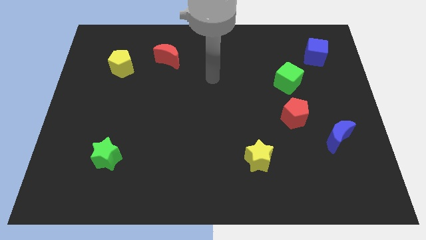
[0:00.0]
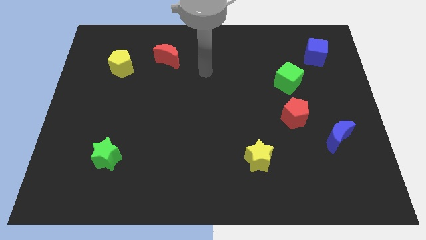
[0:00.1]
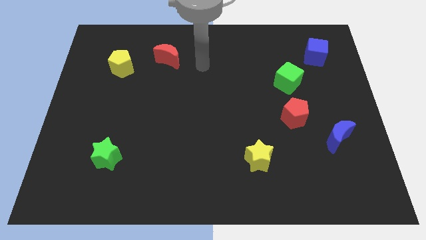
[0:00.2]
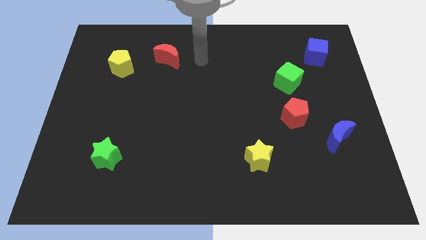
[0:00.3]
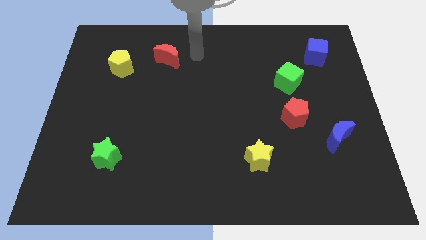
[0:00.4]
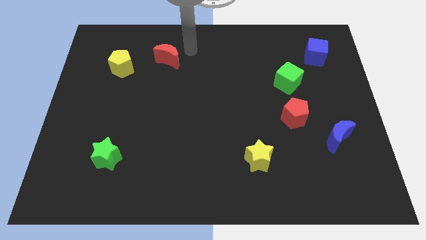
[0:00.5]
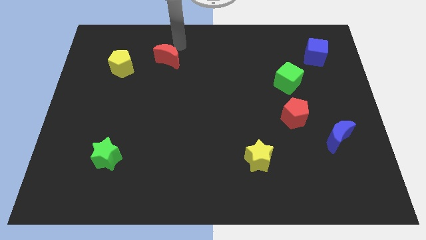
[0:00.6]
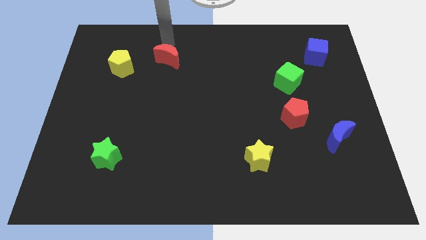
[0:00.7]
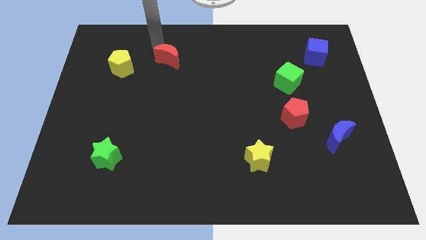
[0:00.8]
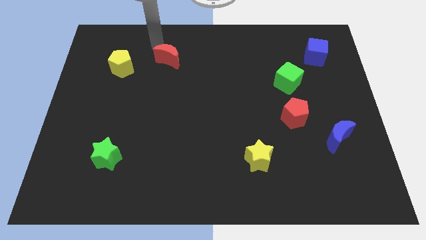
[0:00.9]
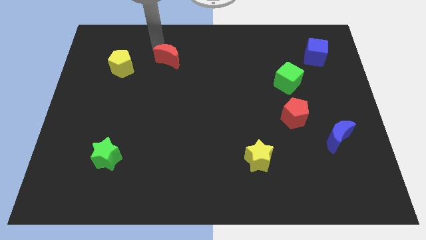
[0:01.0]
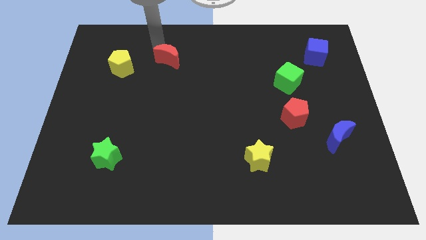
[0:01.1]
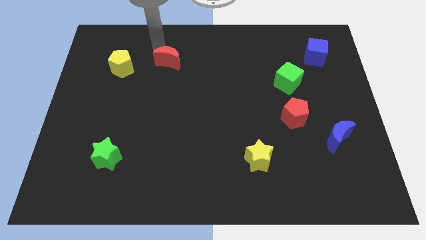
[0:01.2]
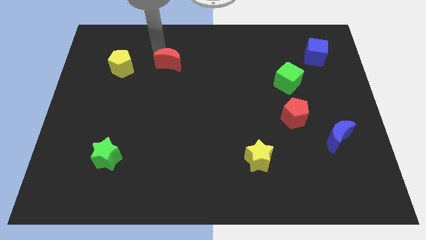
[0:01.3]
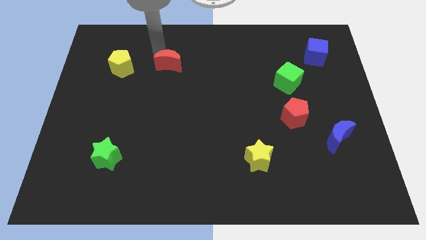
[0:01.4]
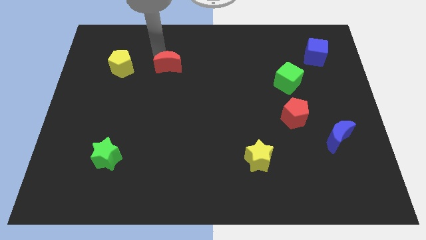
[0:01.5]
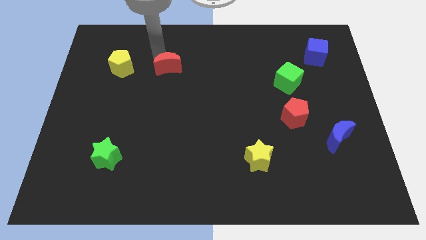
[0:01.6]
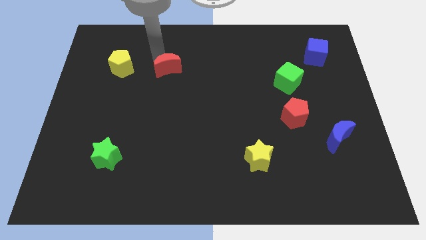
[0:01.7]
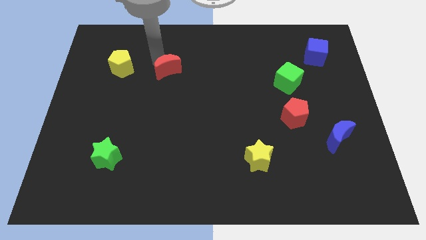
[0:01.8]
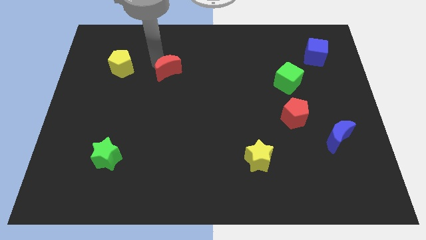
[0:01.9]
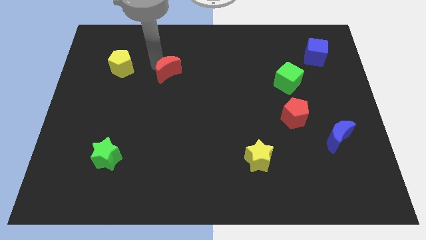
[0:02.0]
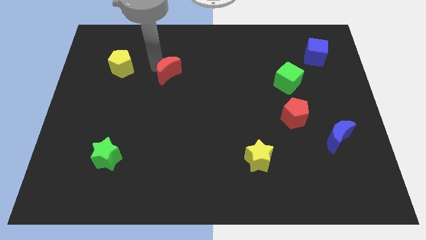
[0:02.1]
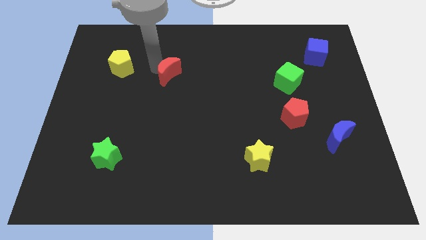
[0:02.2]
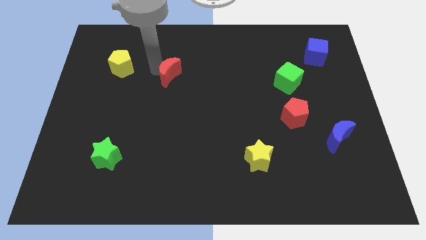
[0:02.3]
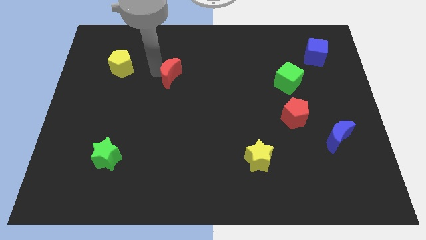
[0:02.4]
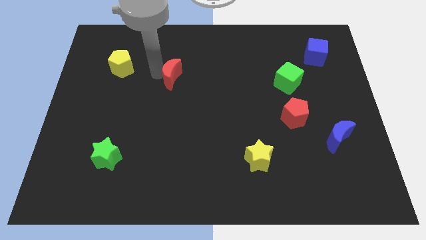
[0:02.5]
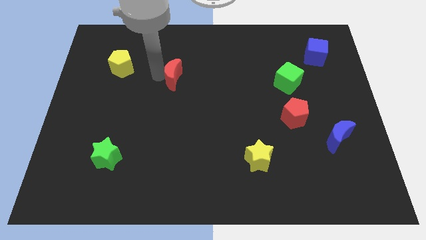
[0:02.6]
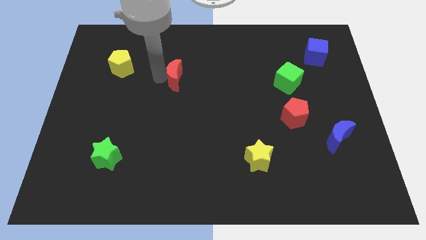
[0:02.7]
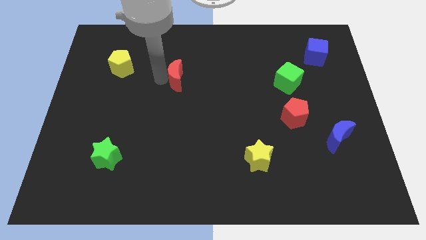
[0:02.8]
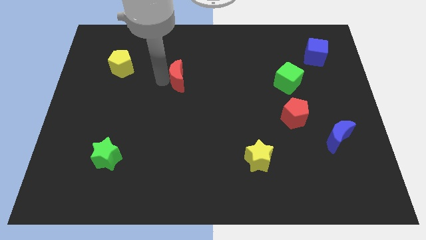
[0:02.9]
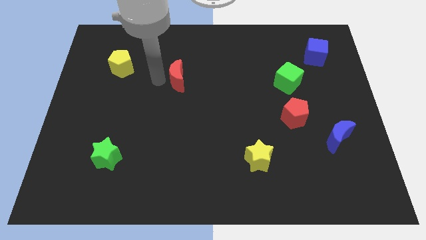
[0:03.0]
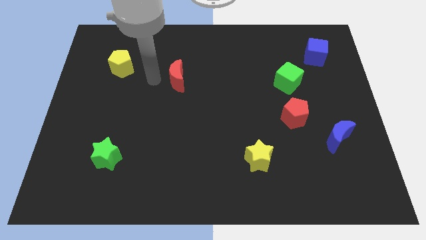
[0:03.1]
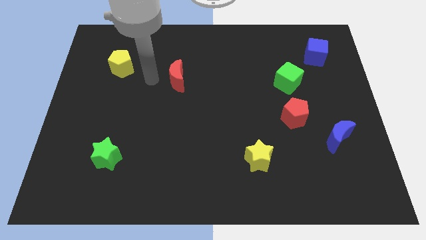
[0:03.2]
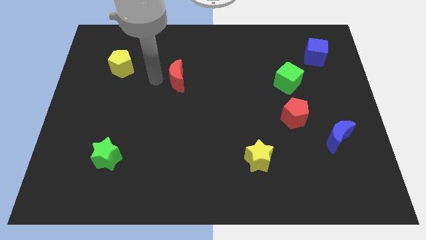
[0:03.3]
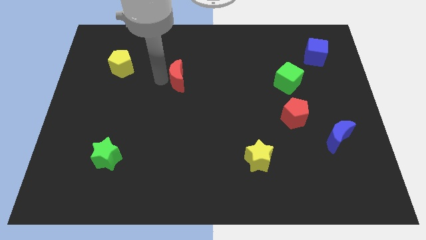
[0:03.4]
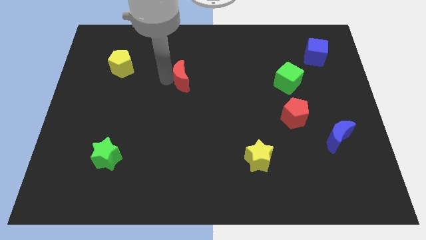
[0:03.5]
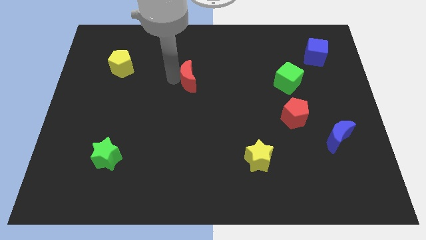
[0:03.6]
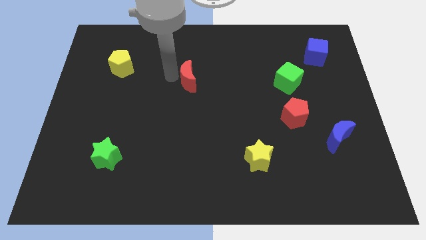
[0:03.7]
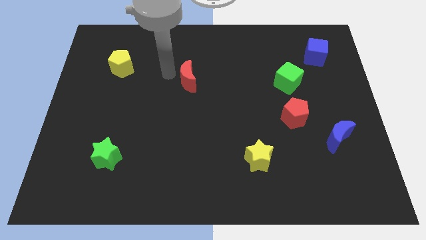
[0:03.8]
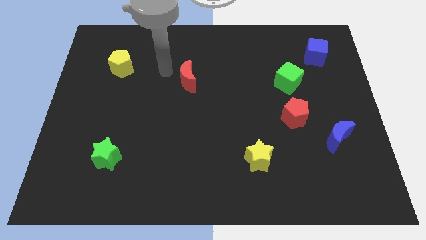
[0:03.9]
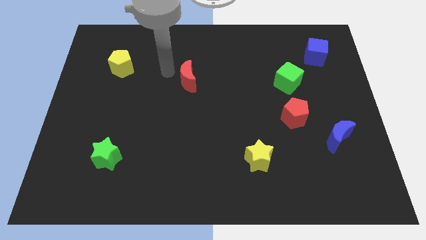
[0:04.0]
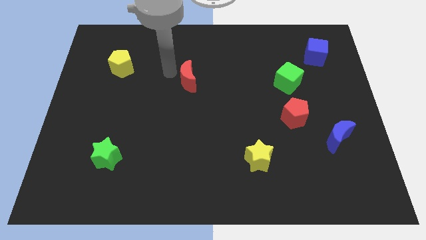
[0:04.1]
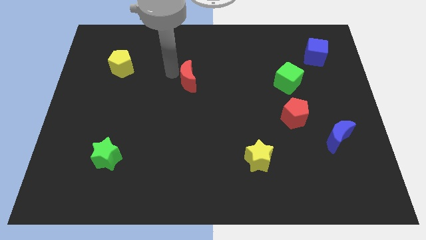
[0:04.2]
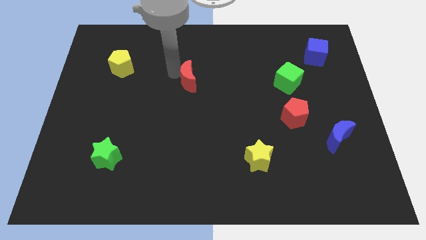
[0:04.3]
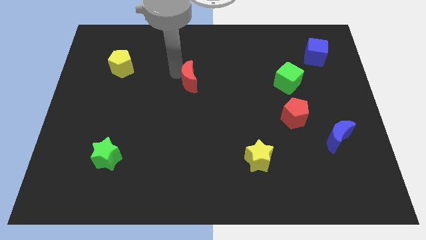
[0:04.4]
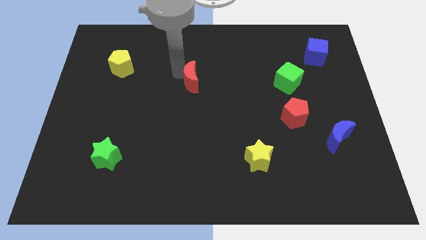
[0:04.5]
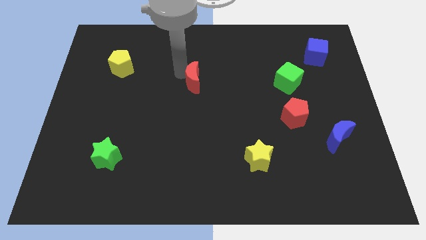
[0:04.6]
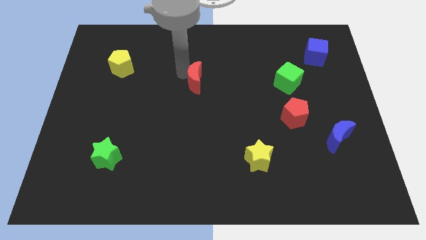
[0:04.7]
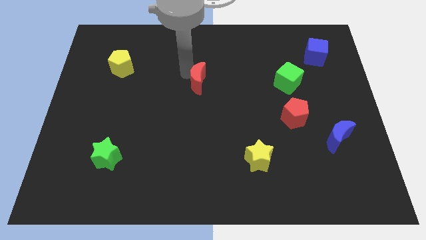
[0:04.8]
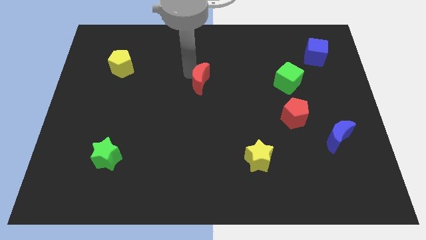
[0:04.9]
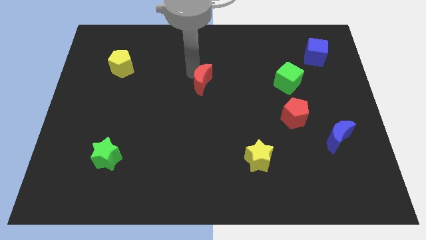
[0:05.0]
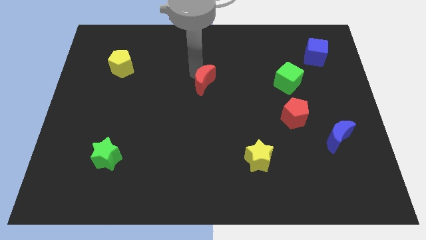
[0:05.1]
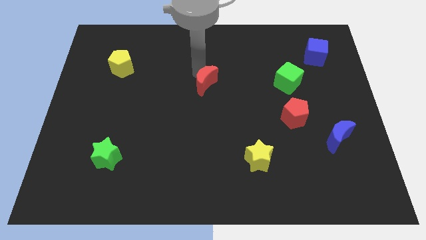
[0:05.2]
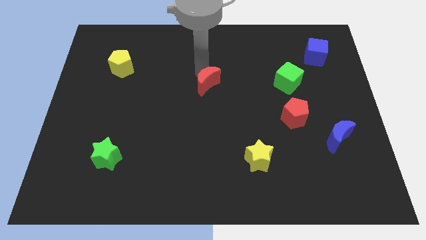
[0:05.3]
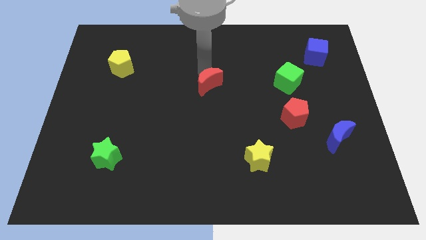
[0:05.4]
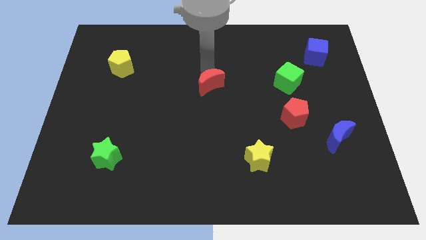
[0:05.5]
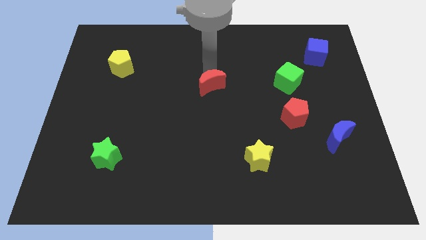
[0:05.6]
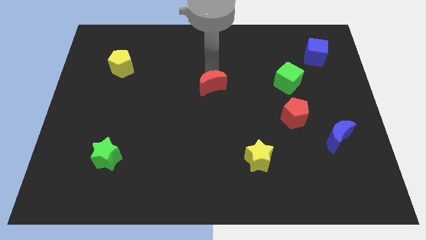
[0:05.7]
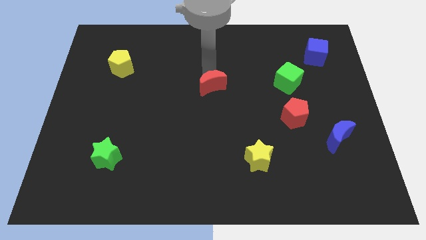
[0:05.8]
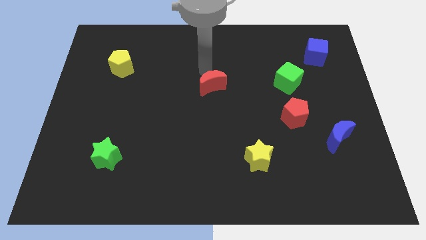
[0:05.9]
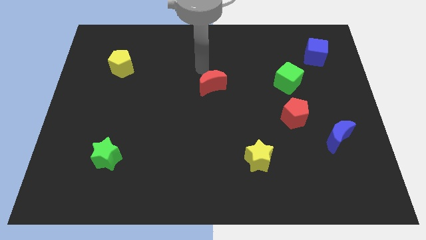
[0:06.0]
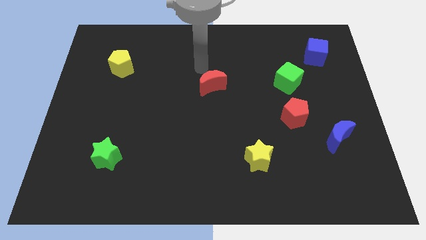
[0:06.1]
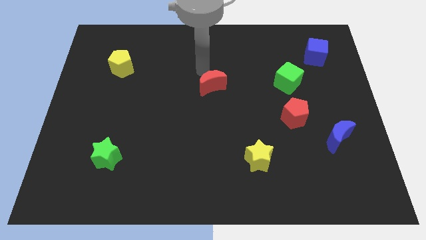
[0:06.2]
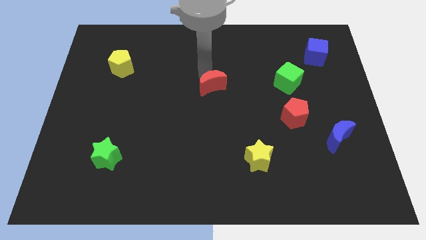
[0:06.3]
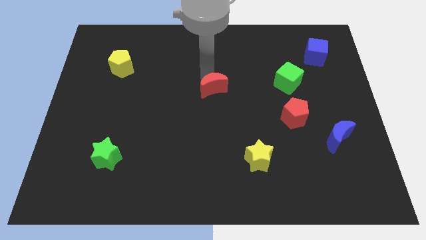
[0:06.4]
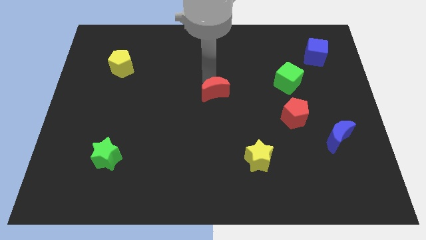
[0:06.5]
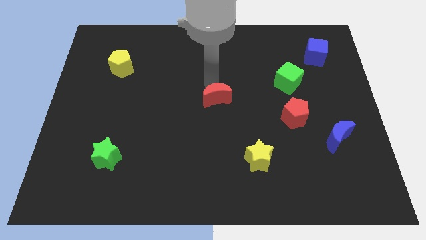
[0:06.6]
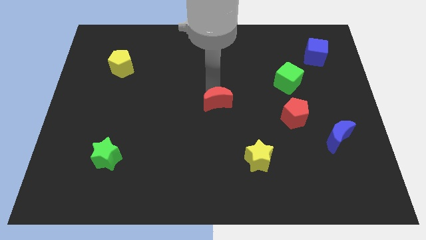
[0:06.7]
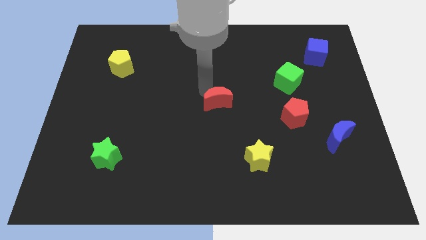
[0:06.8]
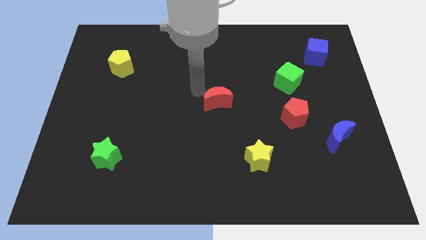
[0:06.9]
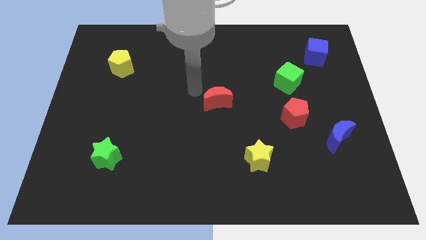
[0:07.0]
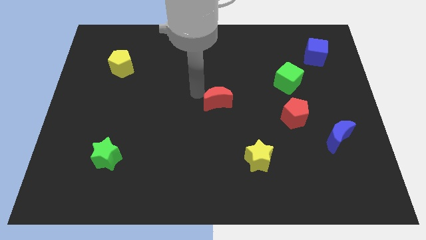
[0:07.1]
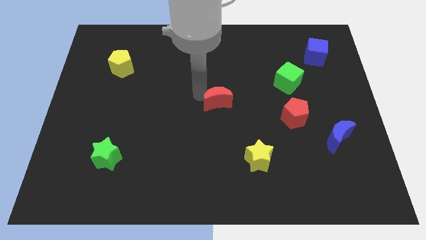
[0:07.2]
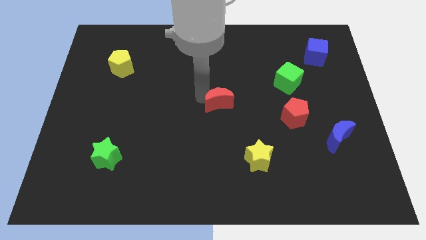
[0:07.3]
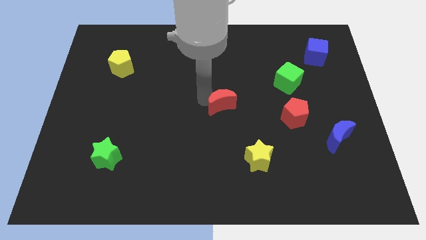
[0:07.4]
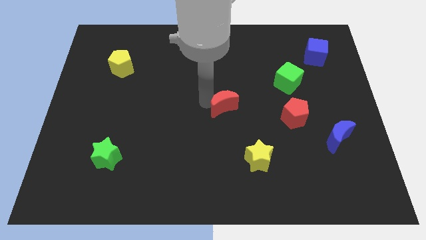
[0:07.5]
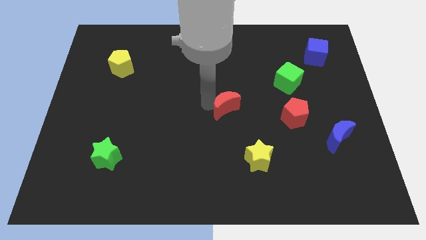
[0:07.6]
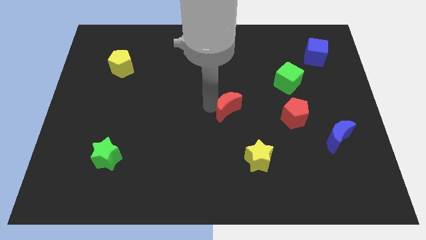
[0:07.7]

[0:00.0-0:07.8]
put the red moon to the left of the red pentagon
